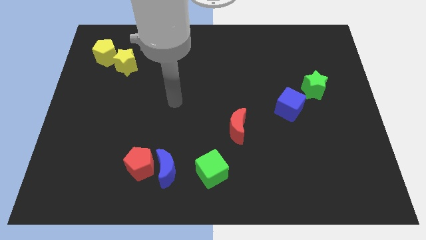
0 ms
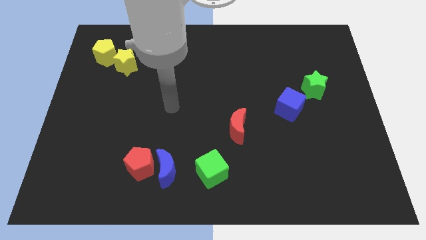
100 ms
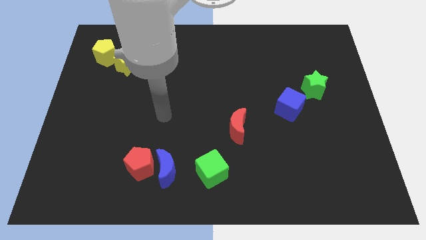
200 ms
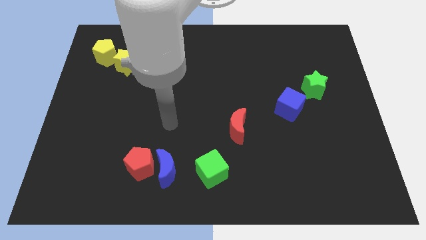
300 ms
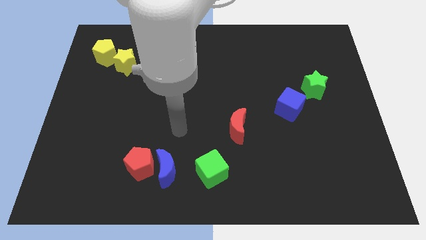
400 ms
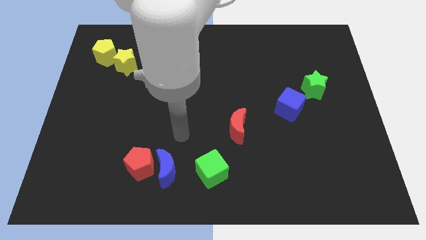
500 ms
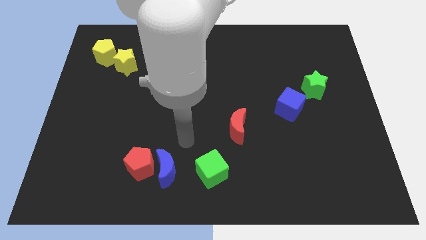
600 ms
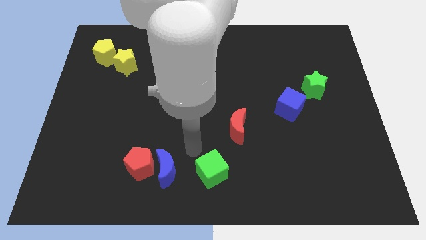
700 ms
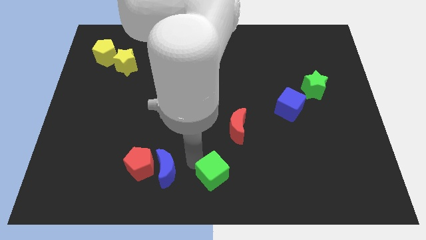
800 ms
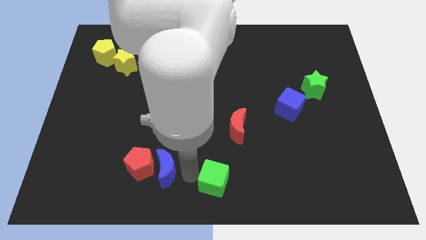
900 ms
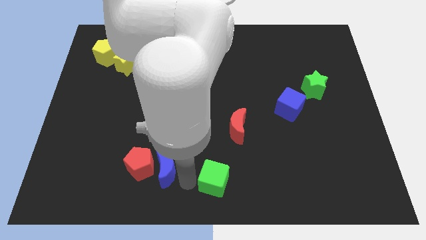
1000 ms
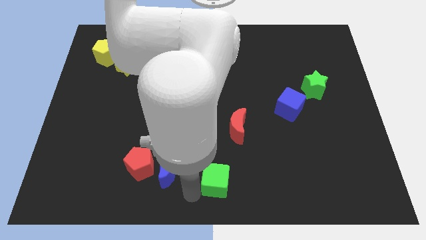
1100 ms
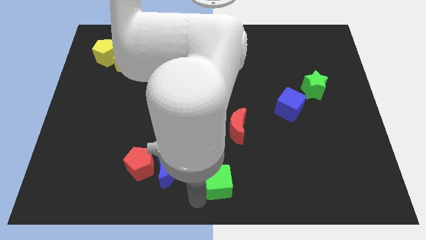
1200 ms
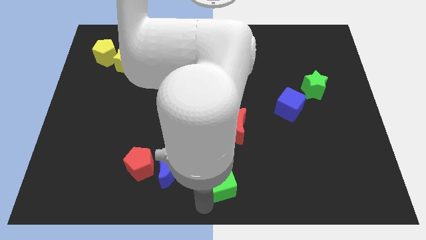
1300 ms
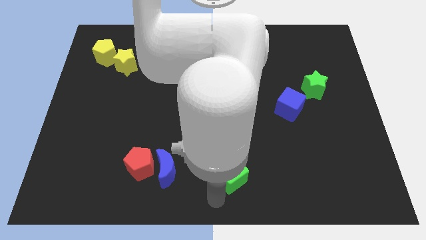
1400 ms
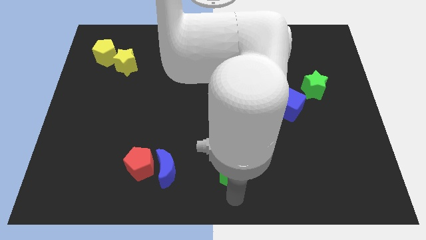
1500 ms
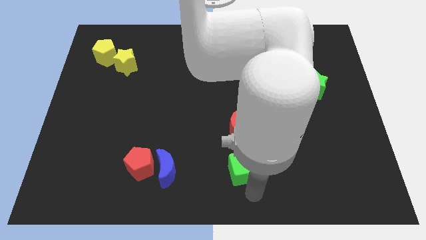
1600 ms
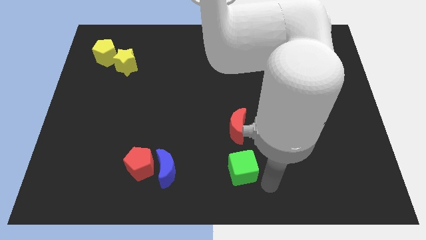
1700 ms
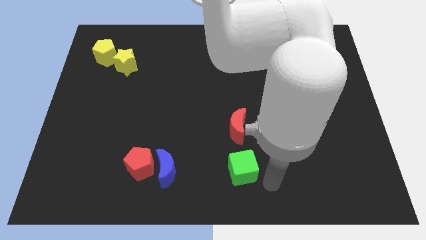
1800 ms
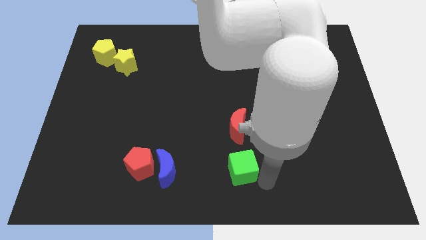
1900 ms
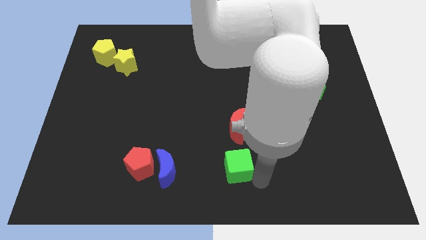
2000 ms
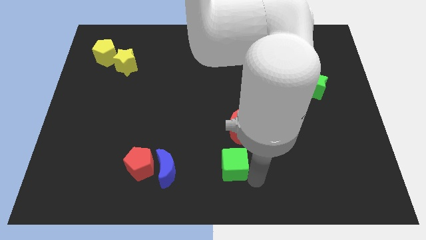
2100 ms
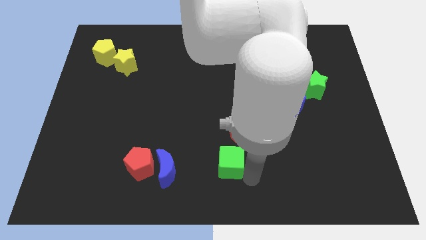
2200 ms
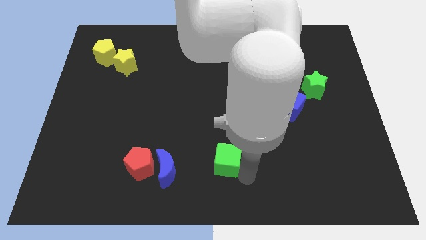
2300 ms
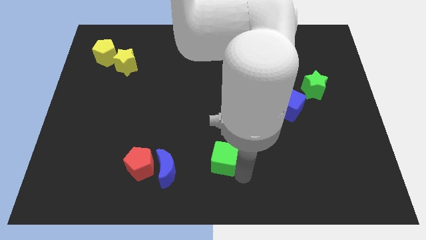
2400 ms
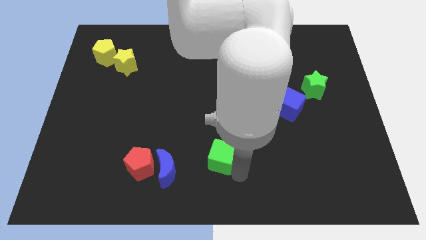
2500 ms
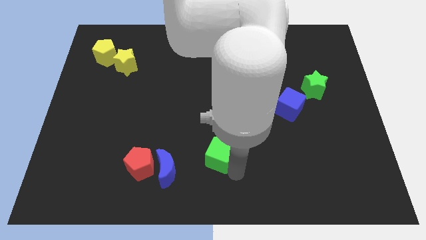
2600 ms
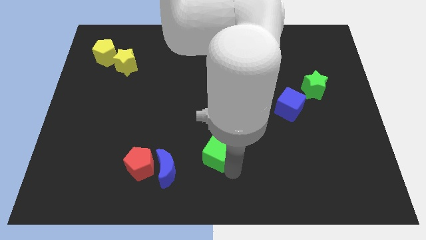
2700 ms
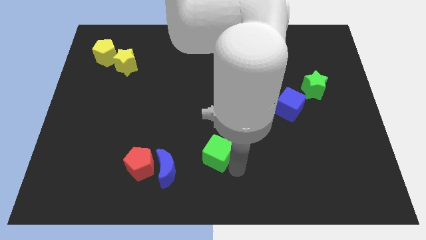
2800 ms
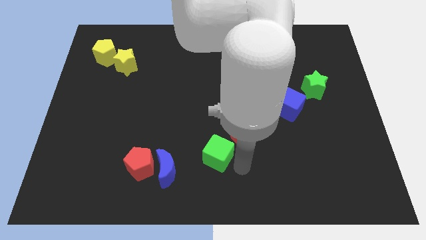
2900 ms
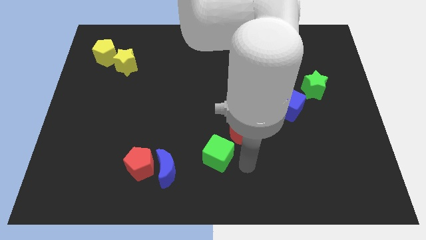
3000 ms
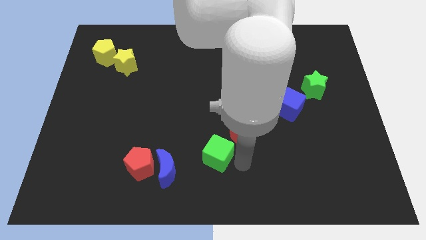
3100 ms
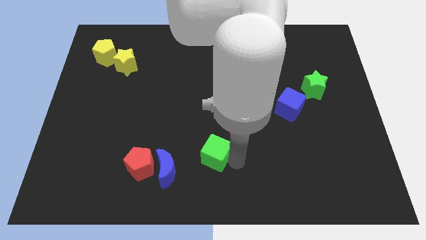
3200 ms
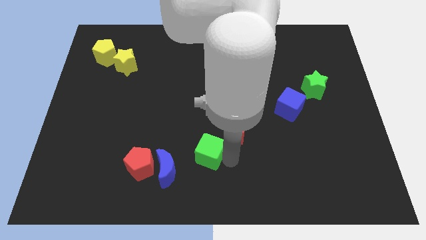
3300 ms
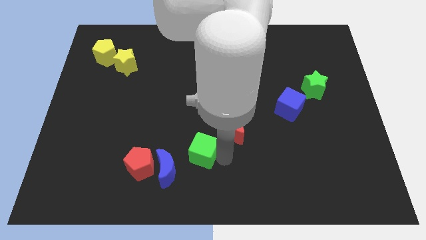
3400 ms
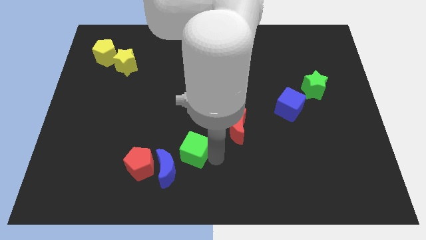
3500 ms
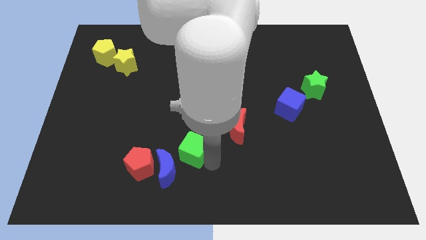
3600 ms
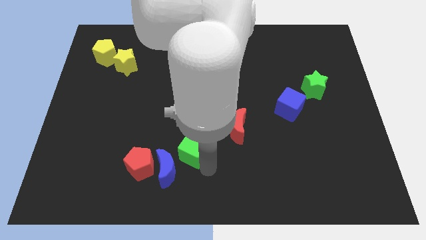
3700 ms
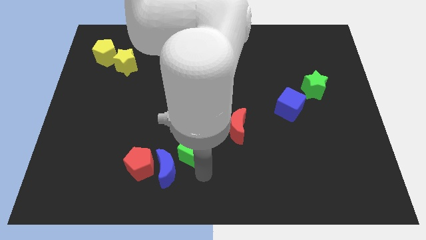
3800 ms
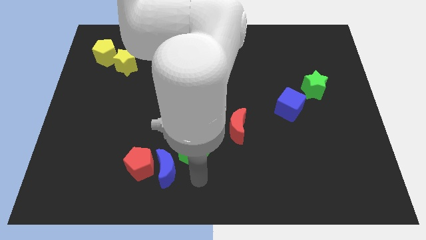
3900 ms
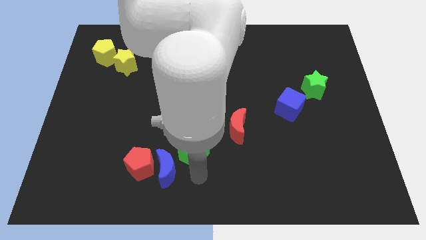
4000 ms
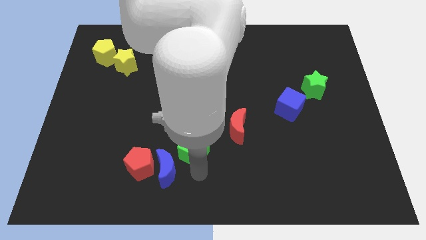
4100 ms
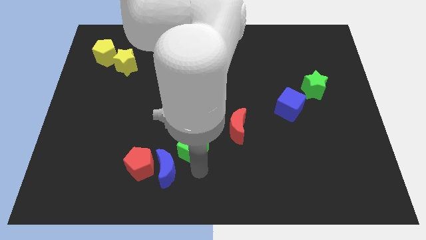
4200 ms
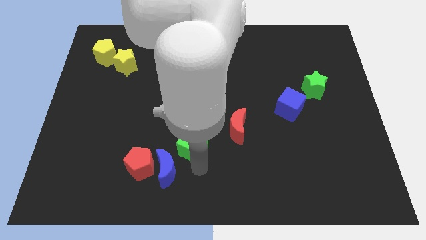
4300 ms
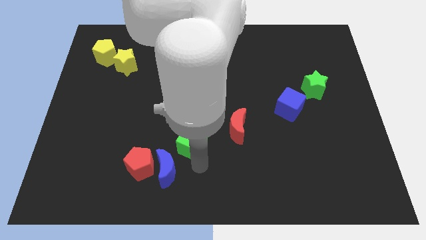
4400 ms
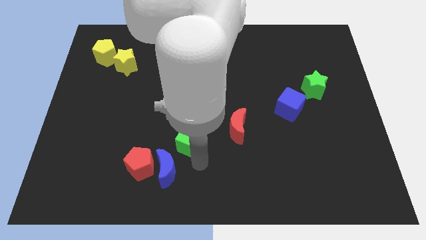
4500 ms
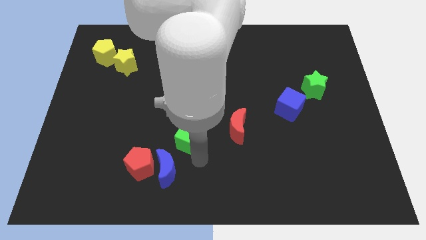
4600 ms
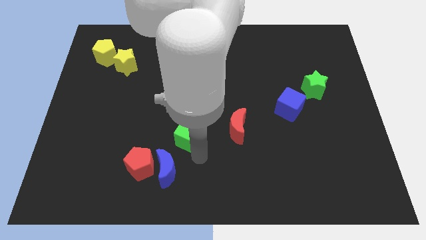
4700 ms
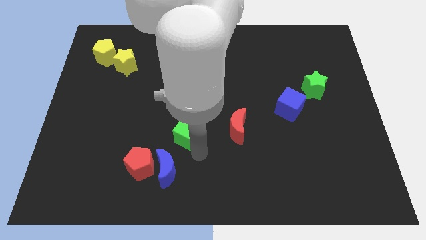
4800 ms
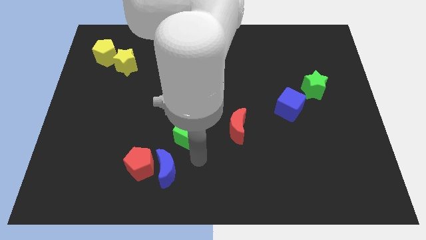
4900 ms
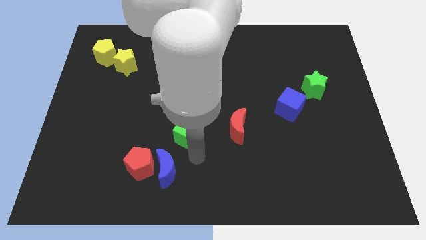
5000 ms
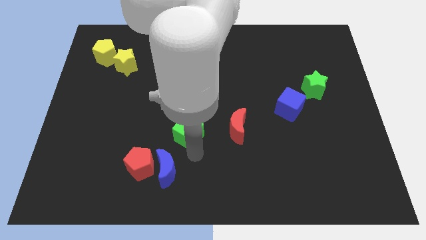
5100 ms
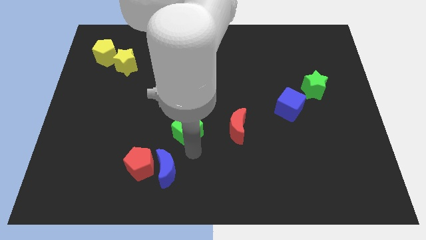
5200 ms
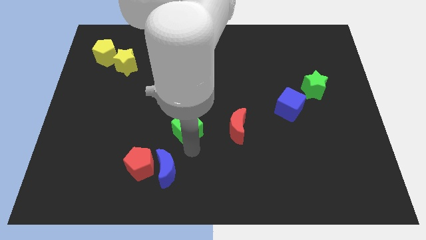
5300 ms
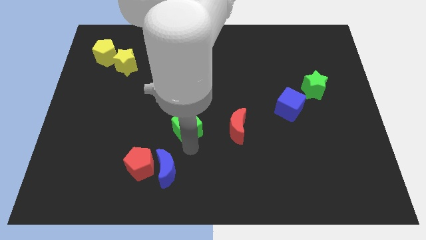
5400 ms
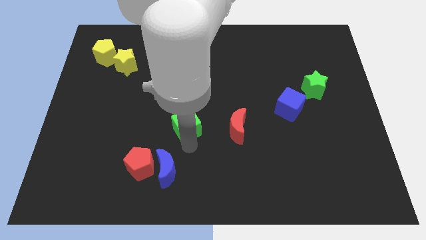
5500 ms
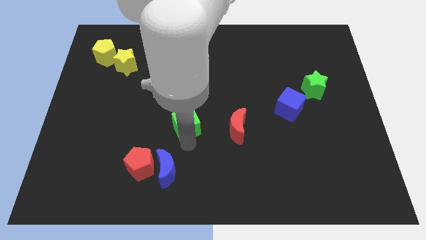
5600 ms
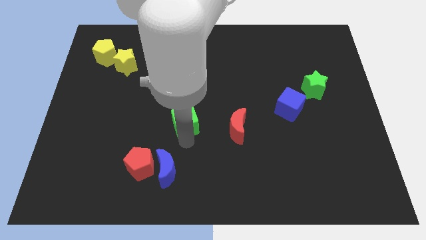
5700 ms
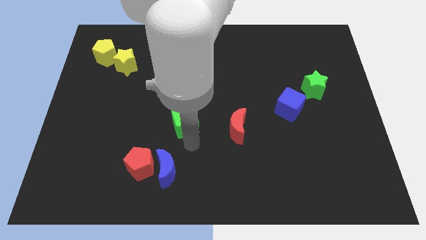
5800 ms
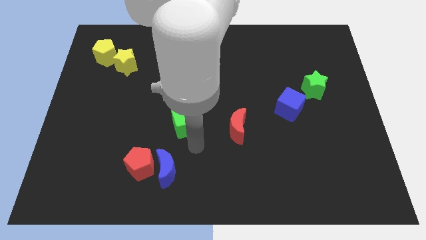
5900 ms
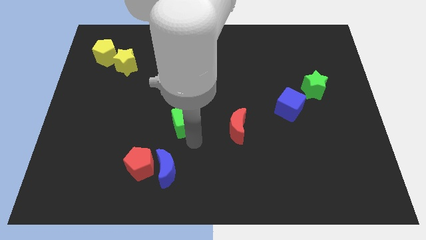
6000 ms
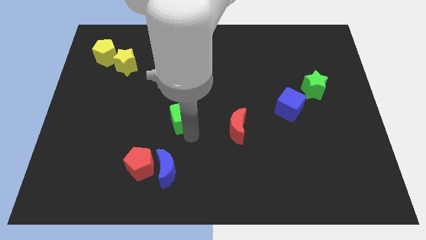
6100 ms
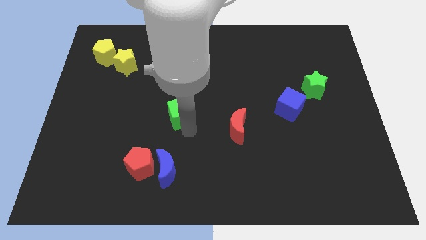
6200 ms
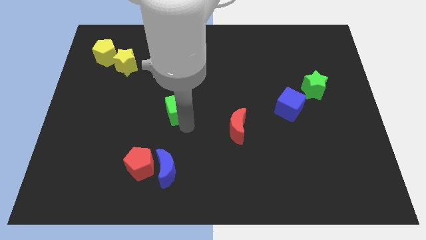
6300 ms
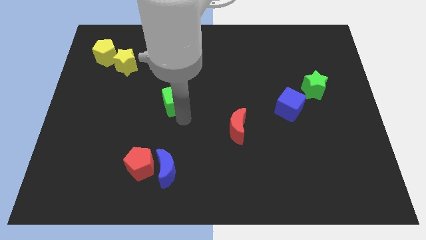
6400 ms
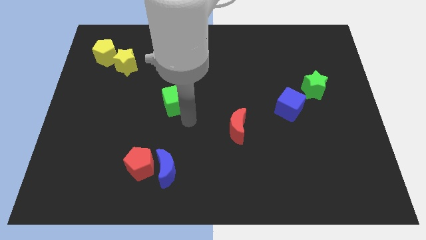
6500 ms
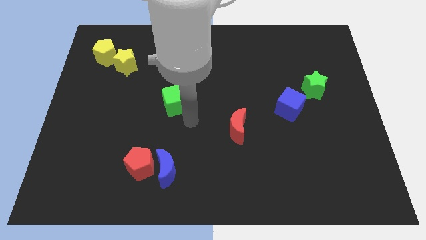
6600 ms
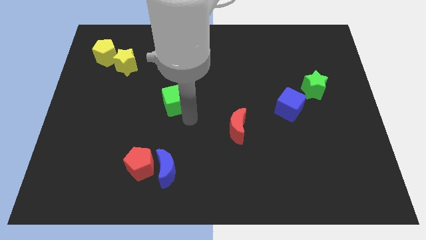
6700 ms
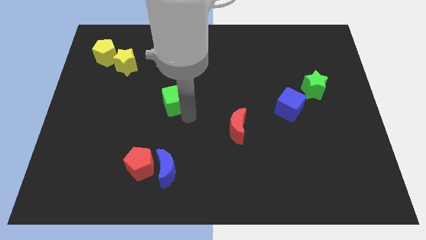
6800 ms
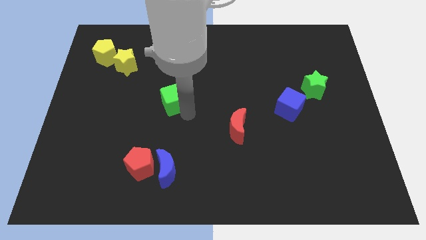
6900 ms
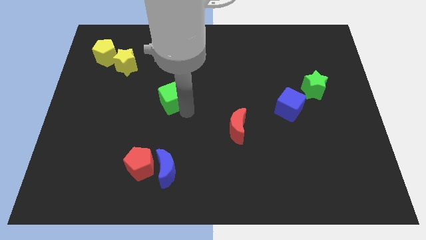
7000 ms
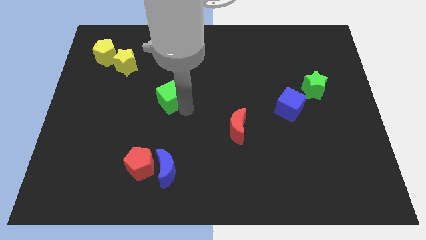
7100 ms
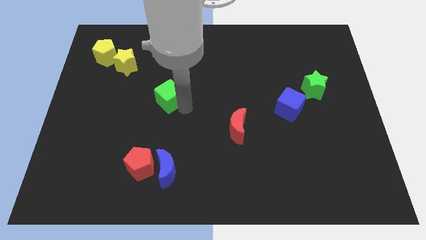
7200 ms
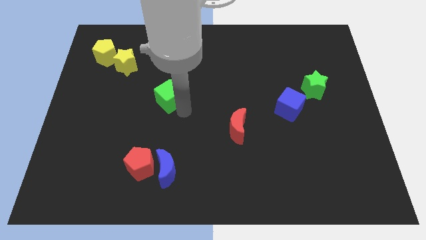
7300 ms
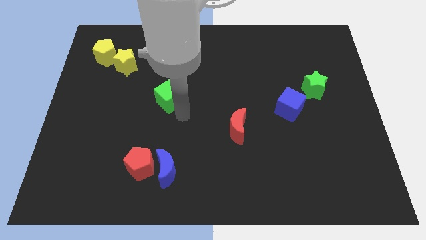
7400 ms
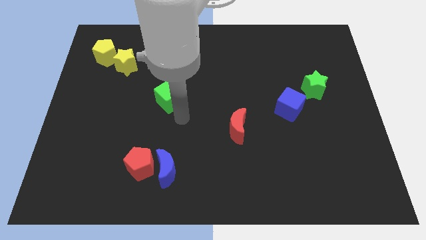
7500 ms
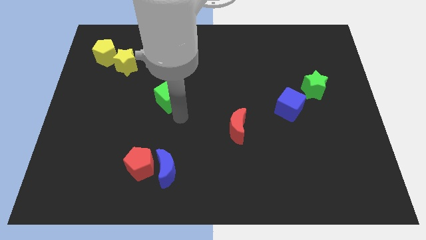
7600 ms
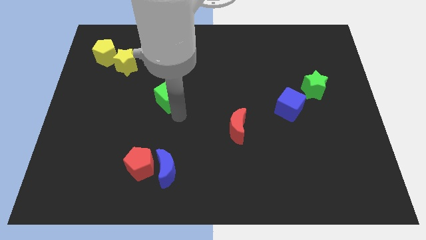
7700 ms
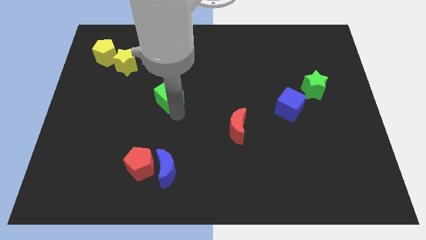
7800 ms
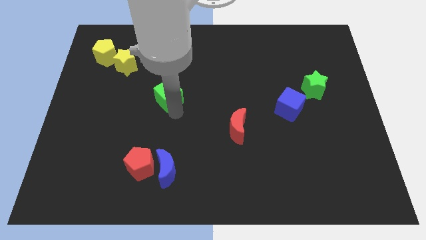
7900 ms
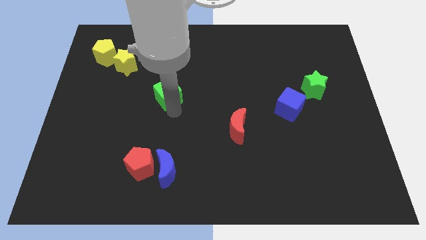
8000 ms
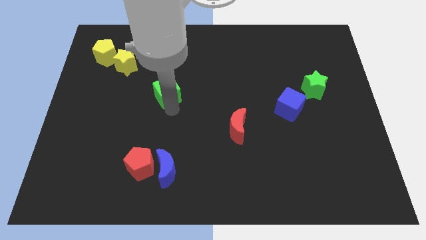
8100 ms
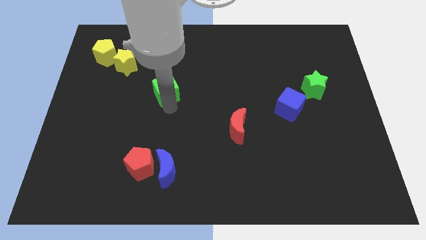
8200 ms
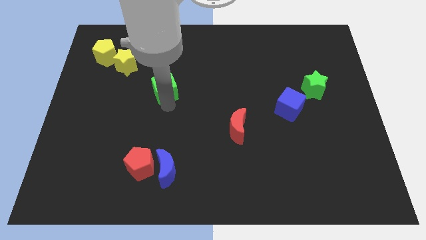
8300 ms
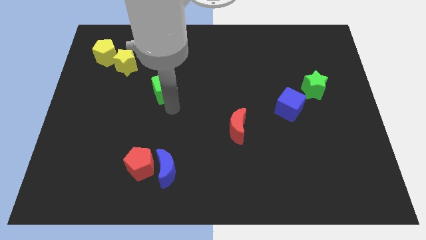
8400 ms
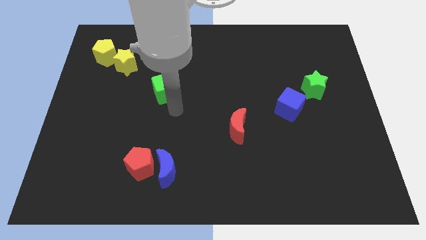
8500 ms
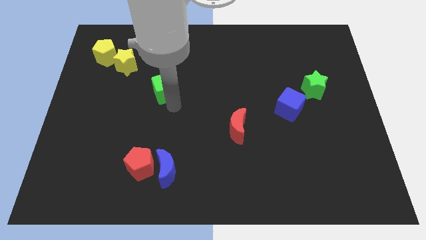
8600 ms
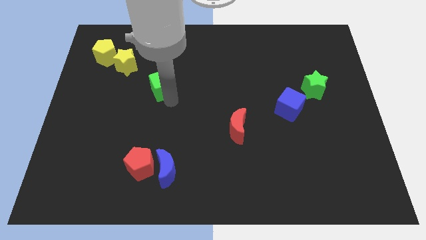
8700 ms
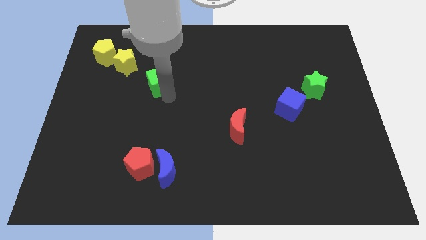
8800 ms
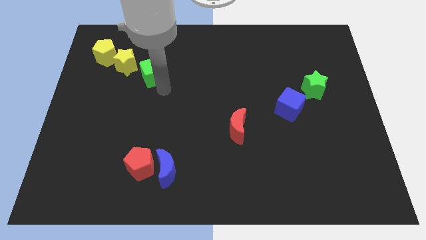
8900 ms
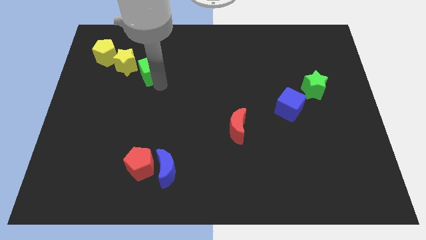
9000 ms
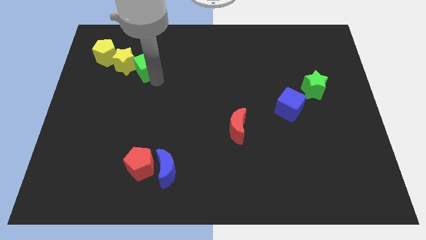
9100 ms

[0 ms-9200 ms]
put the green cube to the right side of the yellow pentagon
